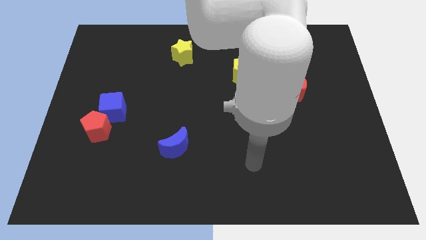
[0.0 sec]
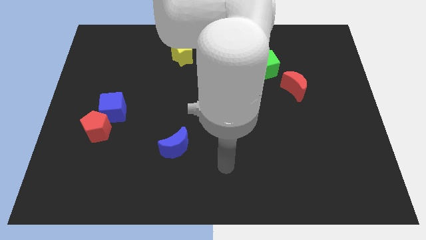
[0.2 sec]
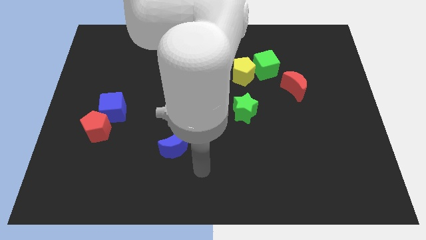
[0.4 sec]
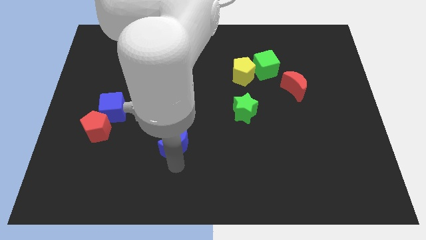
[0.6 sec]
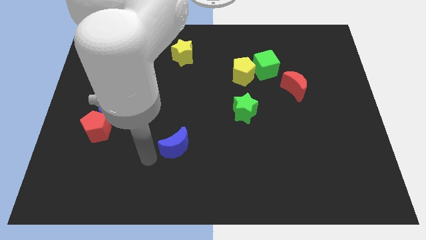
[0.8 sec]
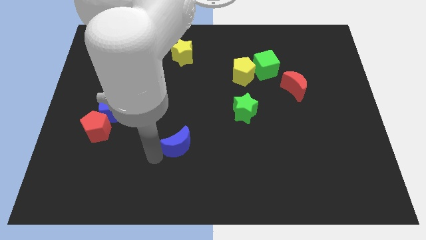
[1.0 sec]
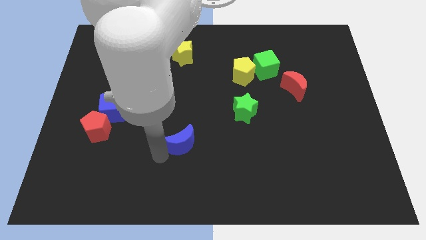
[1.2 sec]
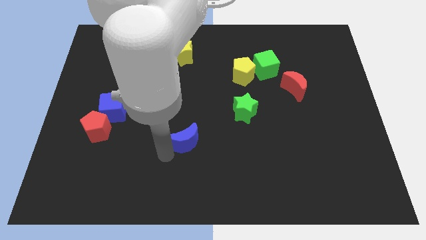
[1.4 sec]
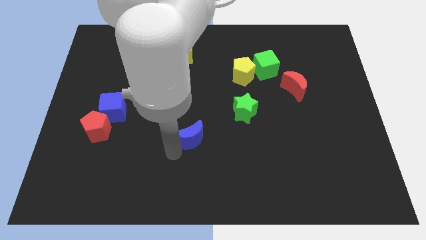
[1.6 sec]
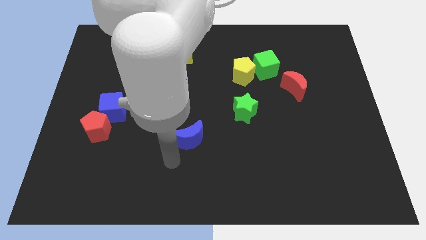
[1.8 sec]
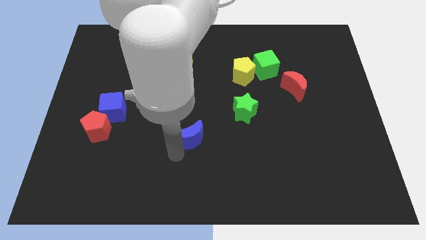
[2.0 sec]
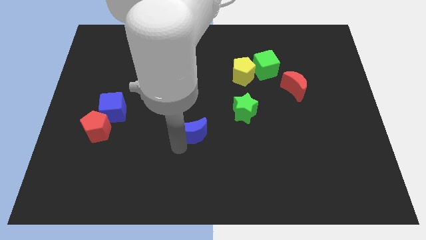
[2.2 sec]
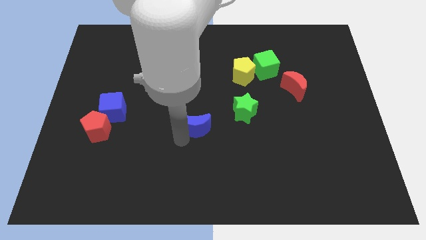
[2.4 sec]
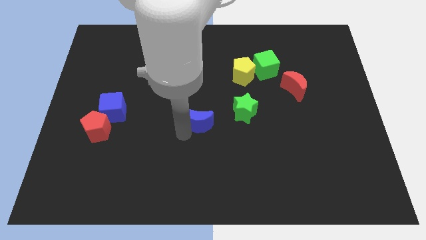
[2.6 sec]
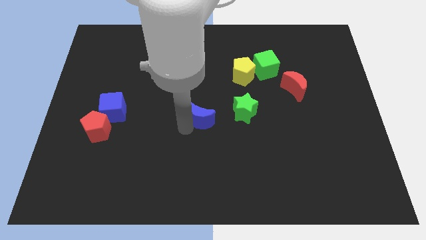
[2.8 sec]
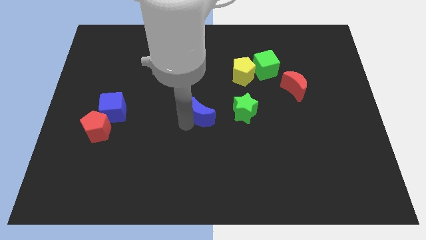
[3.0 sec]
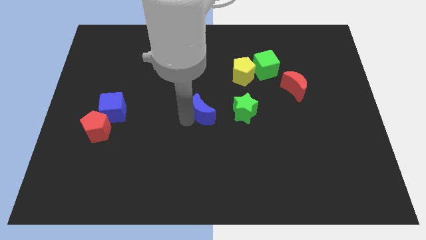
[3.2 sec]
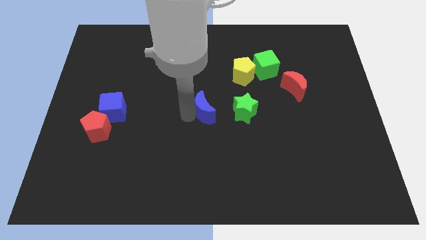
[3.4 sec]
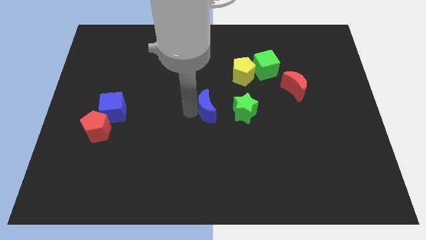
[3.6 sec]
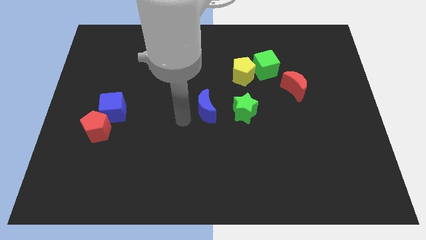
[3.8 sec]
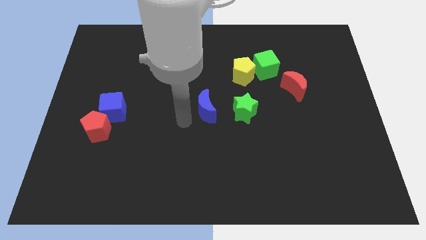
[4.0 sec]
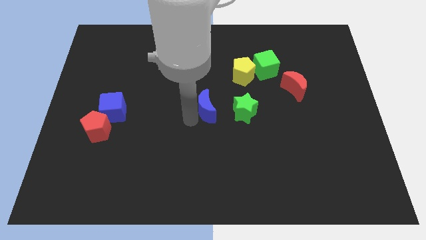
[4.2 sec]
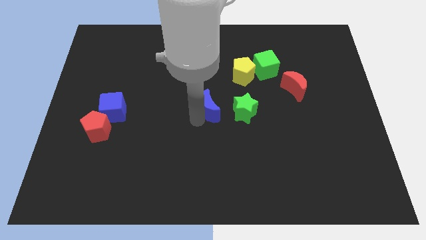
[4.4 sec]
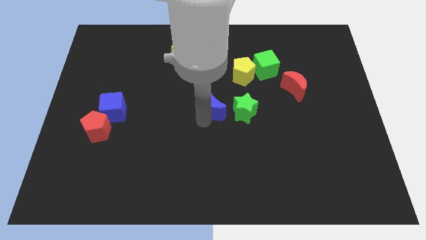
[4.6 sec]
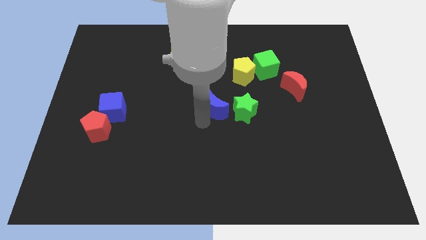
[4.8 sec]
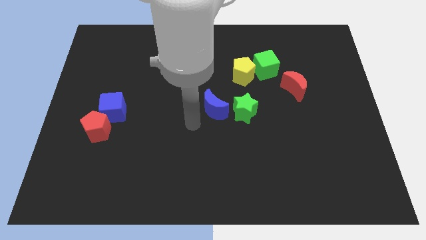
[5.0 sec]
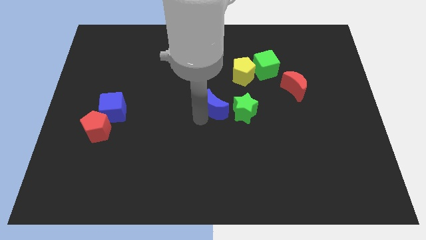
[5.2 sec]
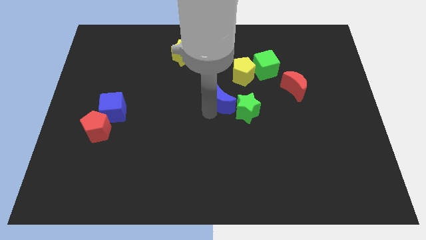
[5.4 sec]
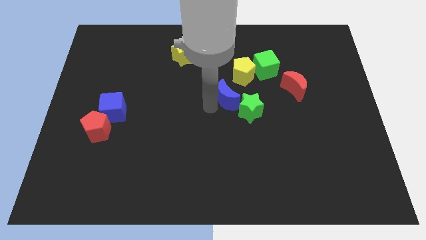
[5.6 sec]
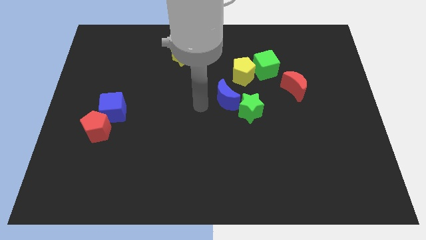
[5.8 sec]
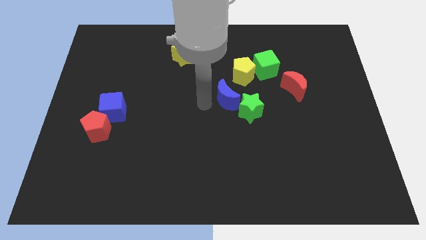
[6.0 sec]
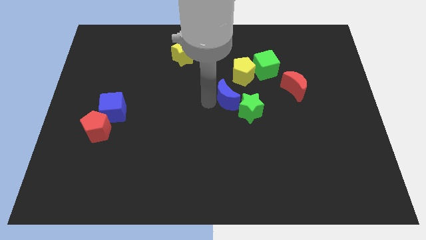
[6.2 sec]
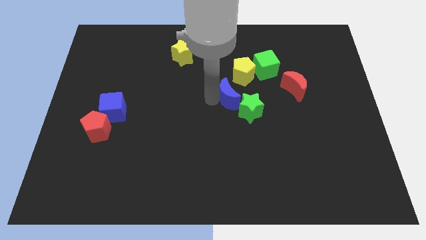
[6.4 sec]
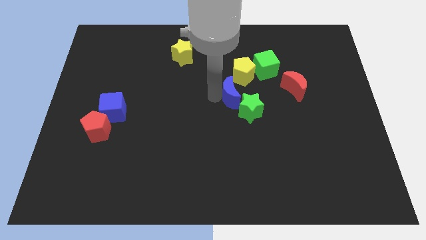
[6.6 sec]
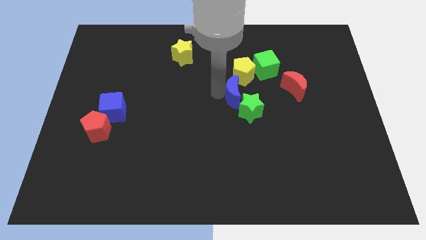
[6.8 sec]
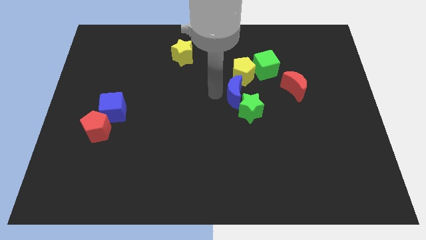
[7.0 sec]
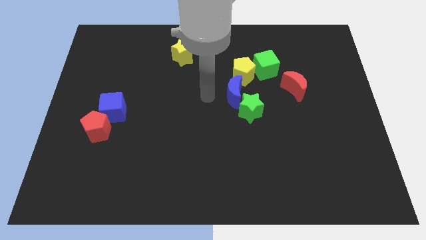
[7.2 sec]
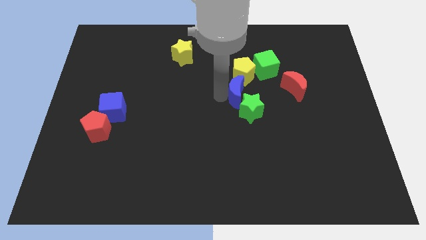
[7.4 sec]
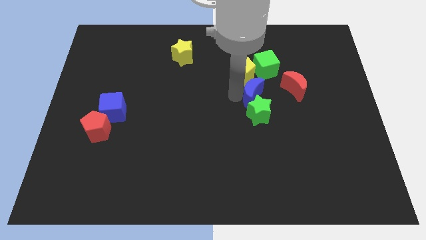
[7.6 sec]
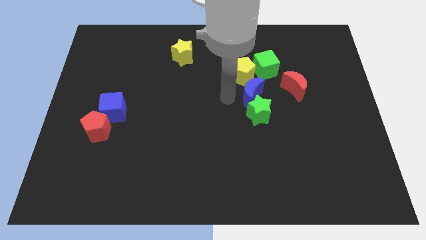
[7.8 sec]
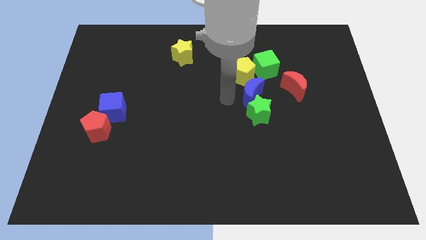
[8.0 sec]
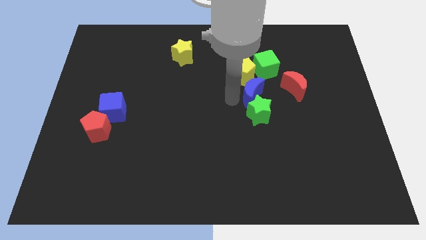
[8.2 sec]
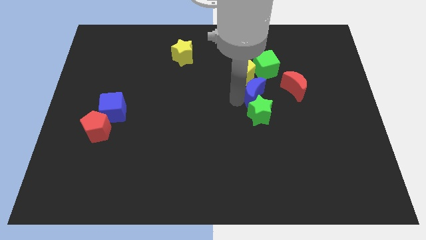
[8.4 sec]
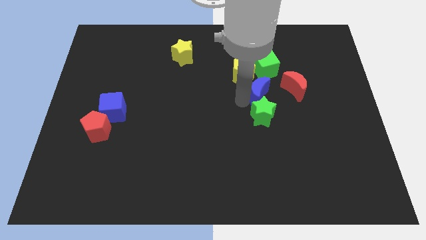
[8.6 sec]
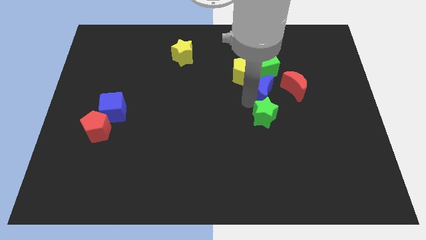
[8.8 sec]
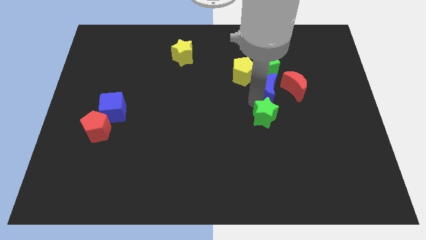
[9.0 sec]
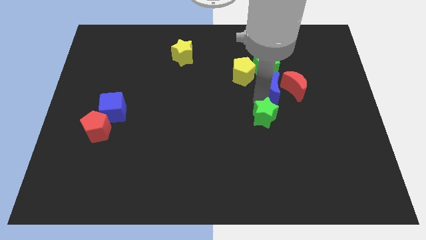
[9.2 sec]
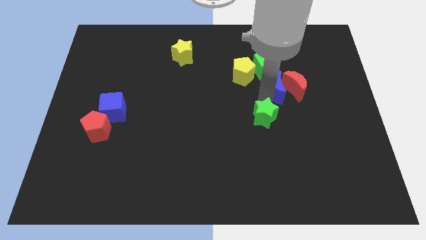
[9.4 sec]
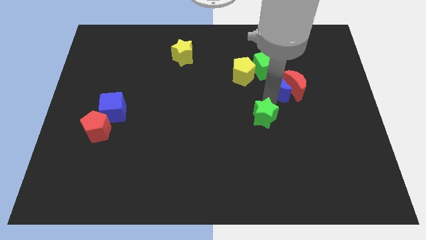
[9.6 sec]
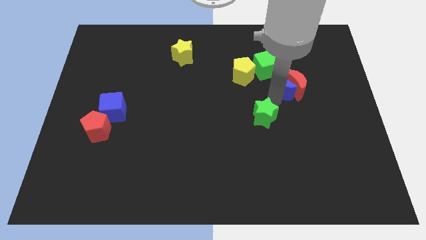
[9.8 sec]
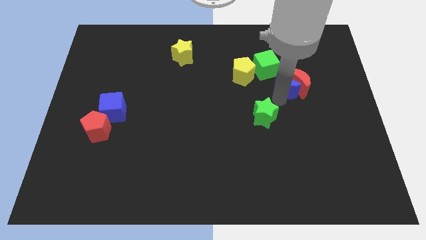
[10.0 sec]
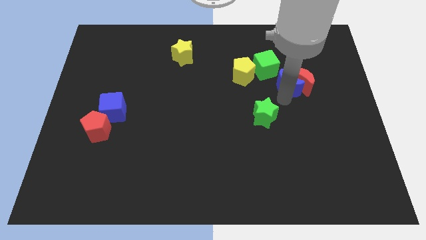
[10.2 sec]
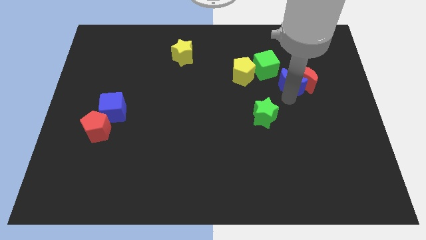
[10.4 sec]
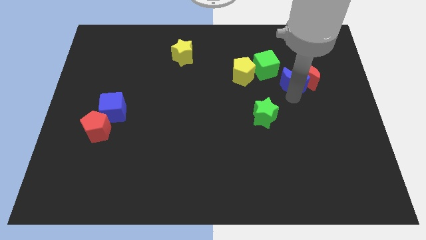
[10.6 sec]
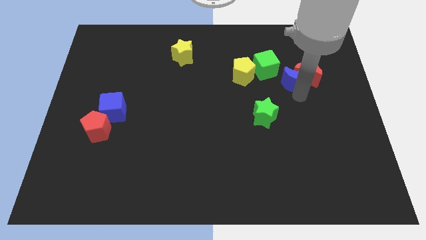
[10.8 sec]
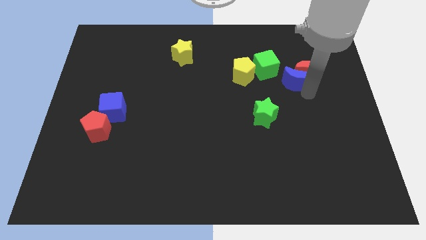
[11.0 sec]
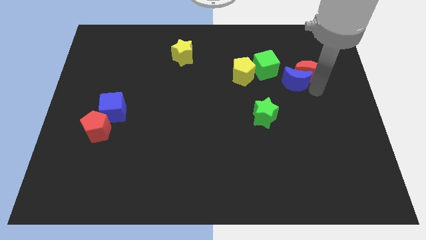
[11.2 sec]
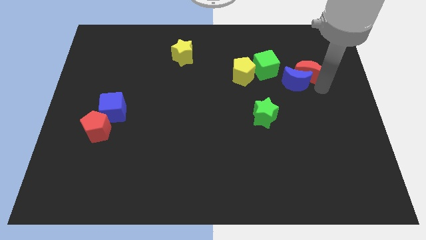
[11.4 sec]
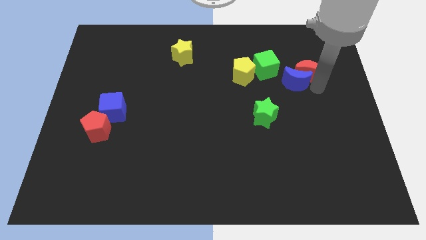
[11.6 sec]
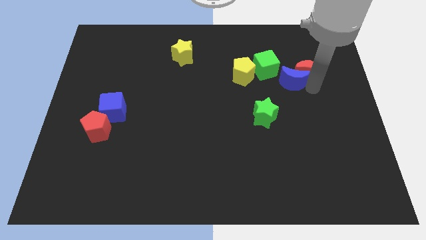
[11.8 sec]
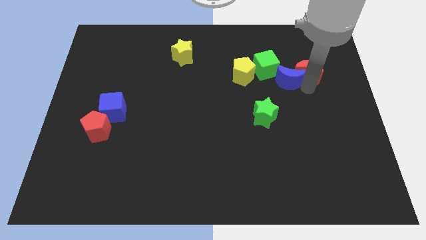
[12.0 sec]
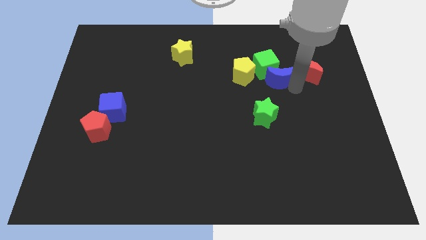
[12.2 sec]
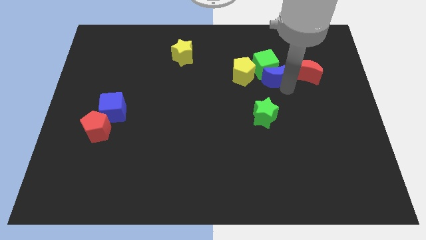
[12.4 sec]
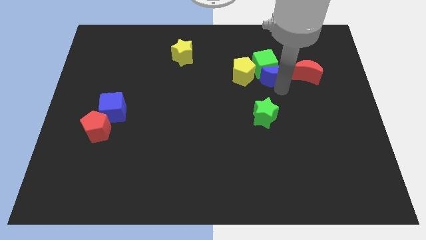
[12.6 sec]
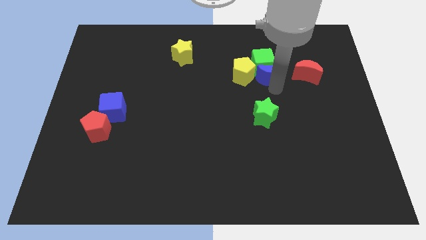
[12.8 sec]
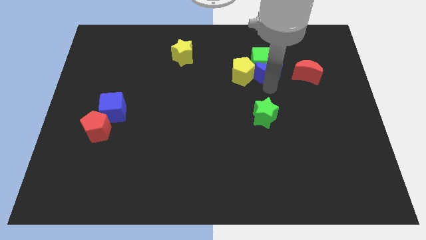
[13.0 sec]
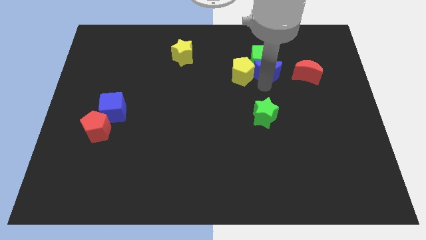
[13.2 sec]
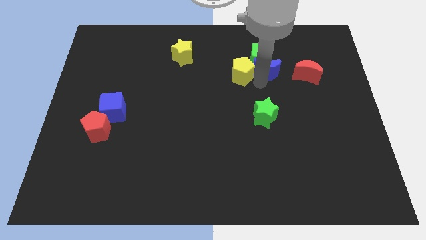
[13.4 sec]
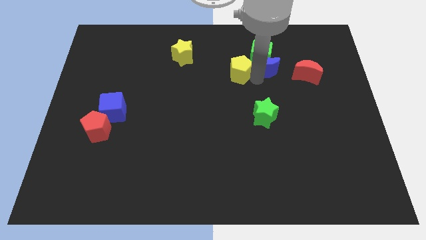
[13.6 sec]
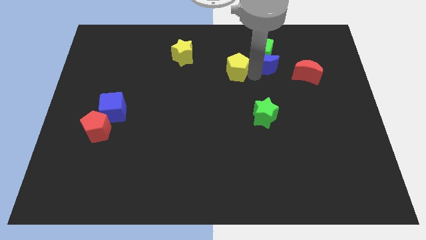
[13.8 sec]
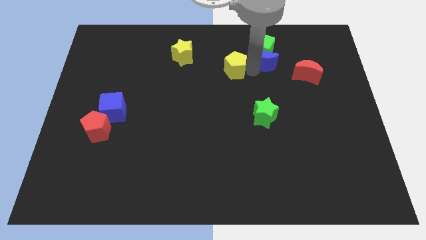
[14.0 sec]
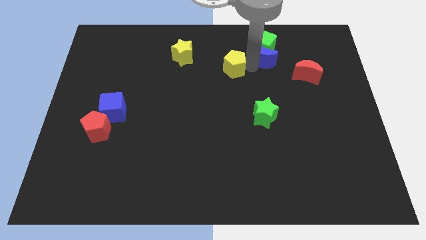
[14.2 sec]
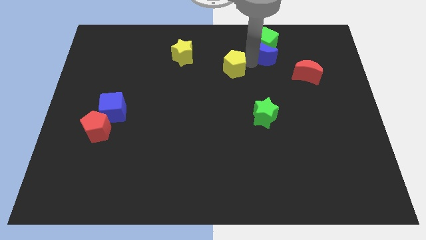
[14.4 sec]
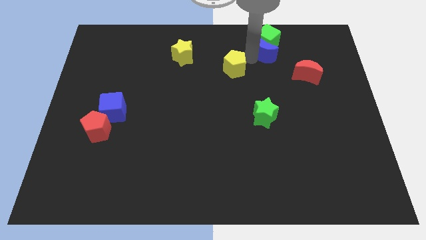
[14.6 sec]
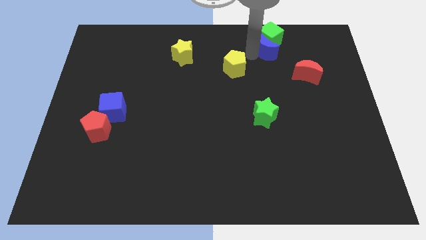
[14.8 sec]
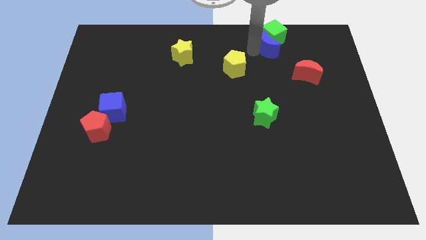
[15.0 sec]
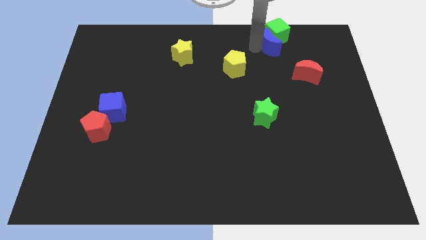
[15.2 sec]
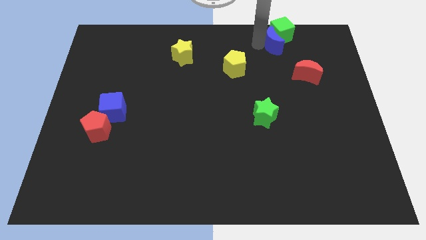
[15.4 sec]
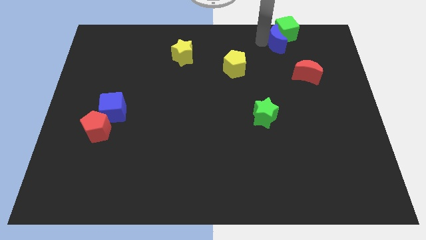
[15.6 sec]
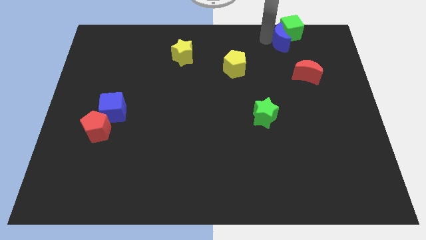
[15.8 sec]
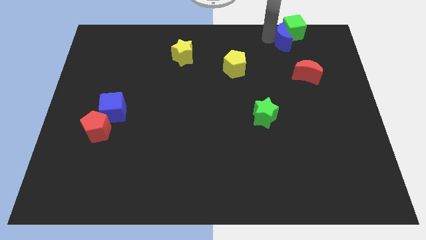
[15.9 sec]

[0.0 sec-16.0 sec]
put the blue moon to the top side of the red moon
